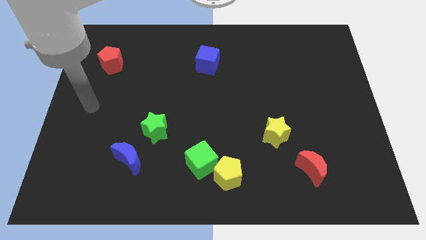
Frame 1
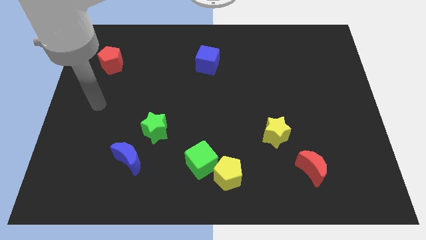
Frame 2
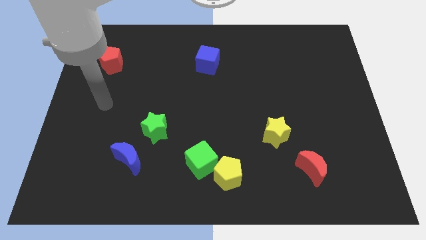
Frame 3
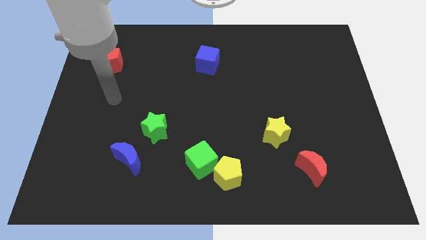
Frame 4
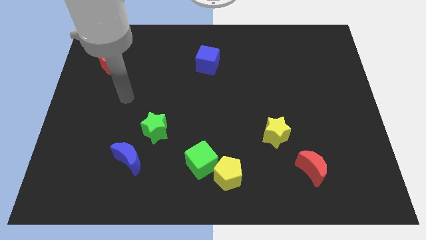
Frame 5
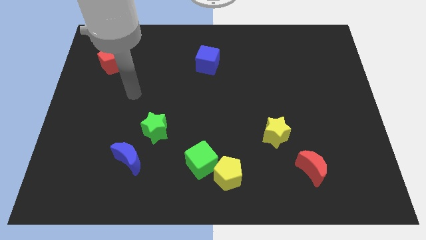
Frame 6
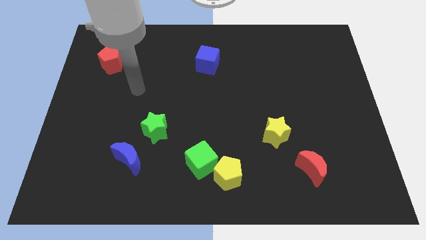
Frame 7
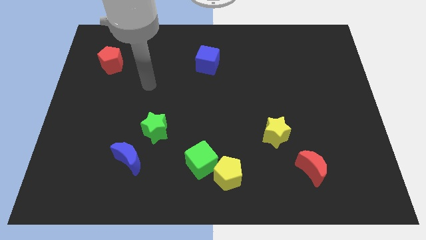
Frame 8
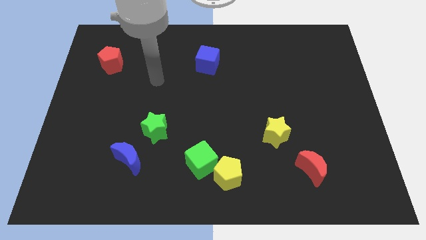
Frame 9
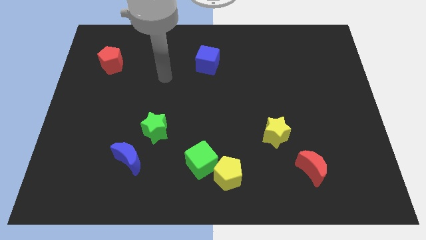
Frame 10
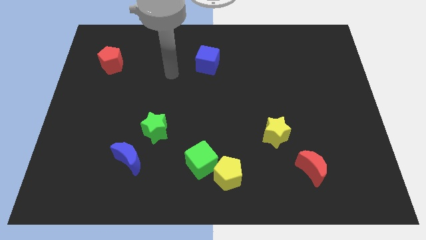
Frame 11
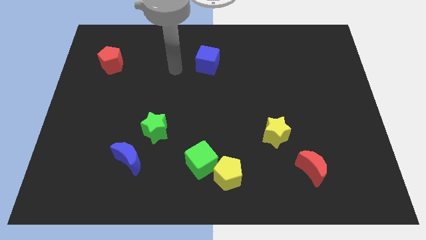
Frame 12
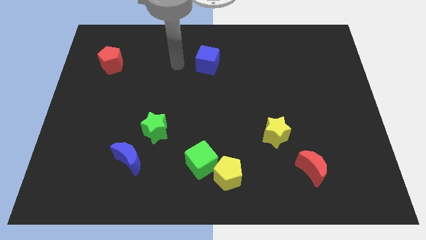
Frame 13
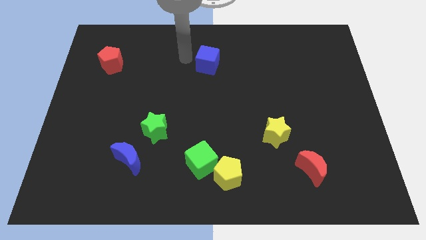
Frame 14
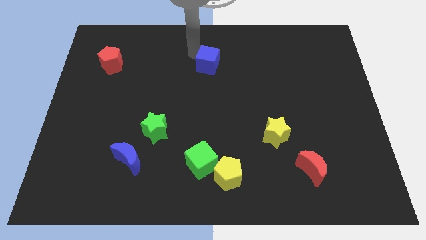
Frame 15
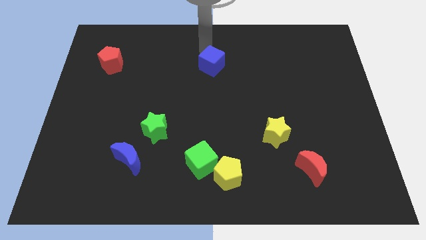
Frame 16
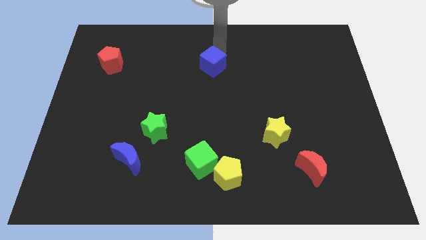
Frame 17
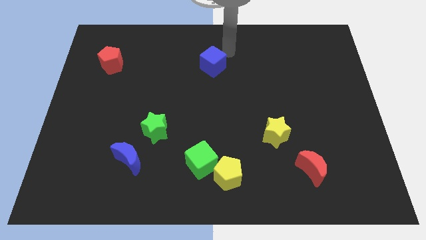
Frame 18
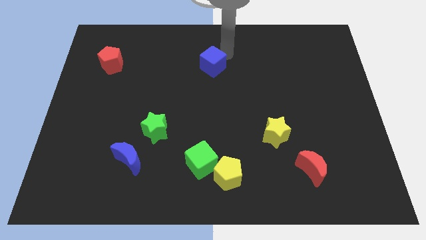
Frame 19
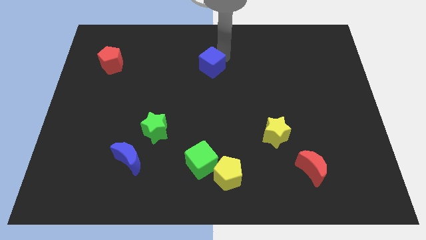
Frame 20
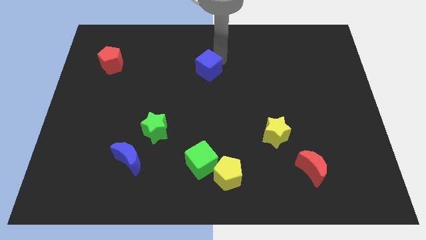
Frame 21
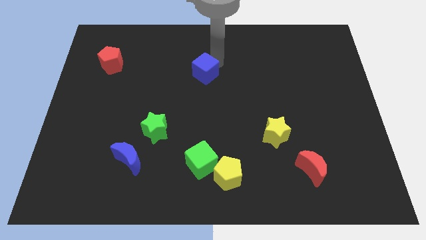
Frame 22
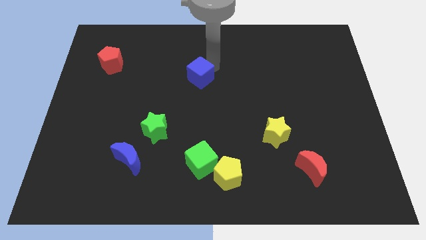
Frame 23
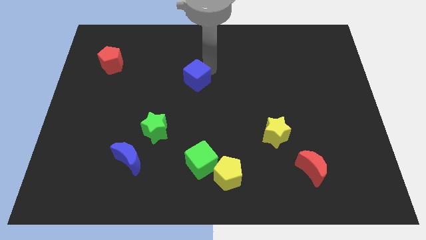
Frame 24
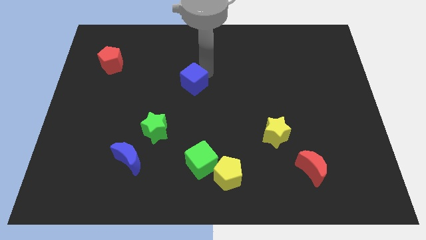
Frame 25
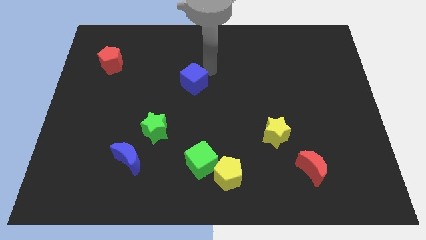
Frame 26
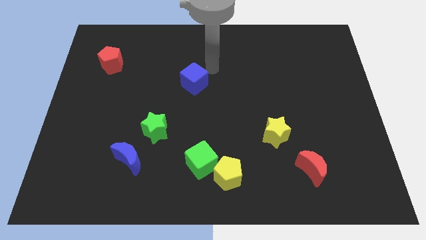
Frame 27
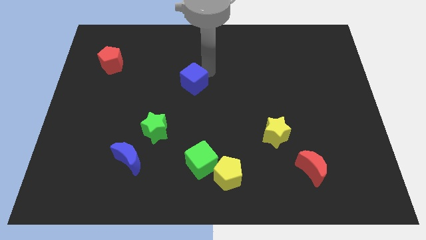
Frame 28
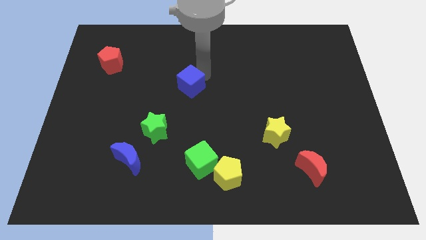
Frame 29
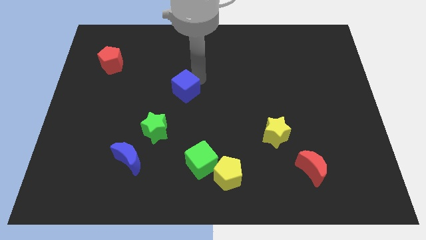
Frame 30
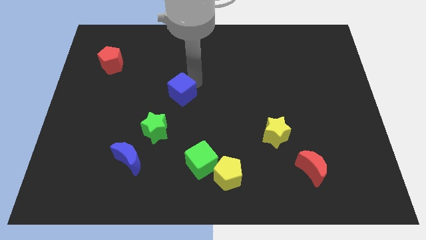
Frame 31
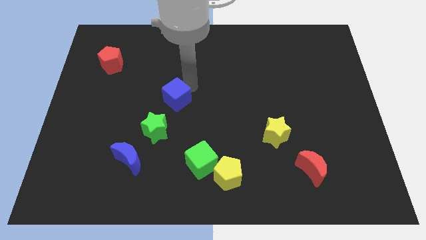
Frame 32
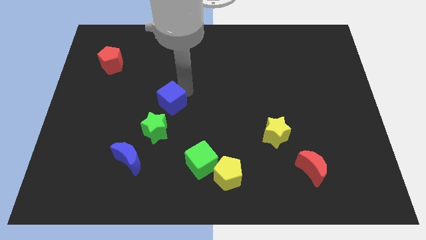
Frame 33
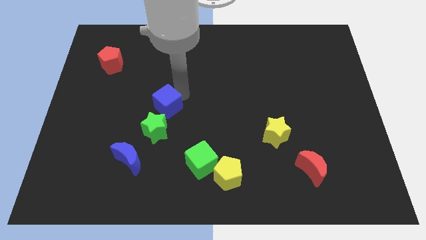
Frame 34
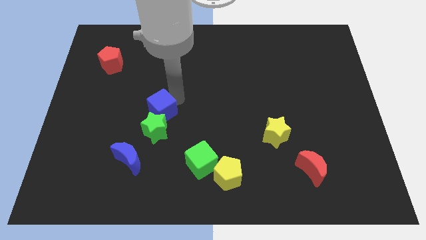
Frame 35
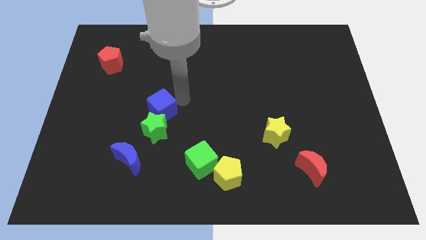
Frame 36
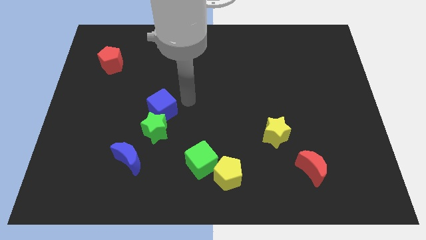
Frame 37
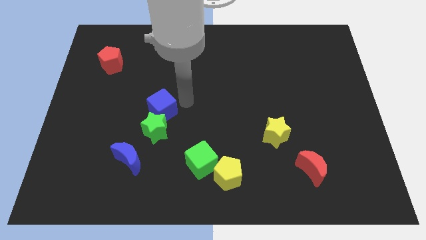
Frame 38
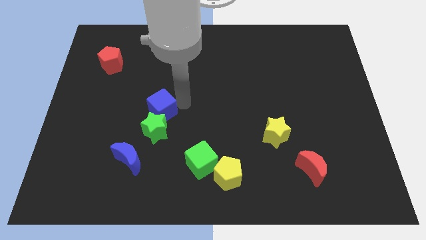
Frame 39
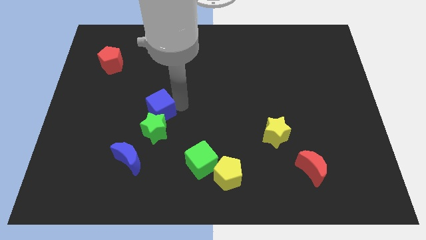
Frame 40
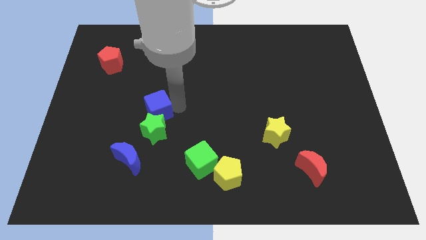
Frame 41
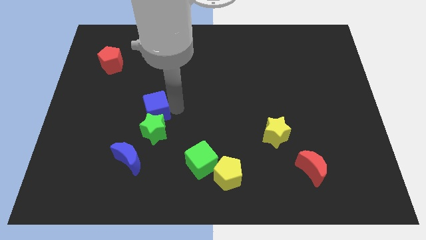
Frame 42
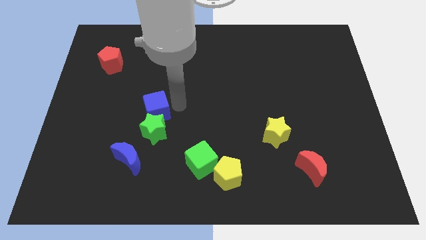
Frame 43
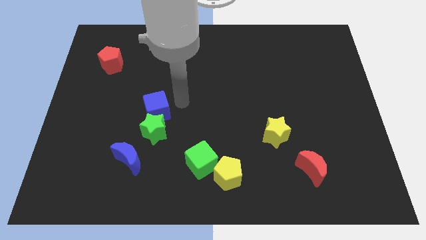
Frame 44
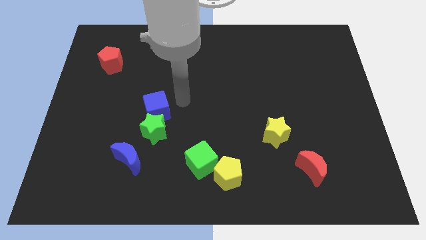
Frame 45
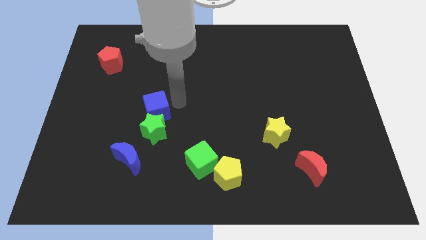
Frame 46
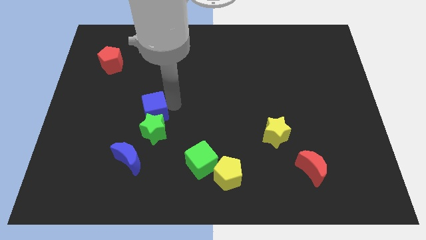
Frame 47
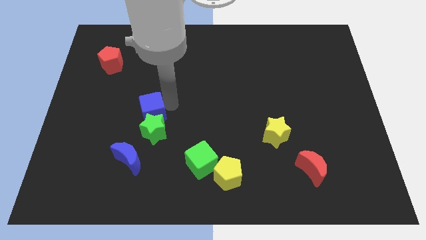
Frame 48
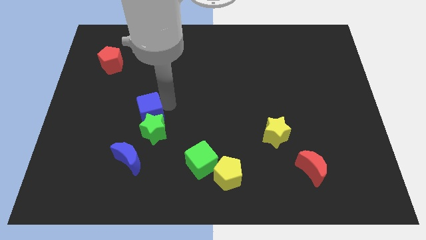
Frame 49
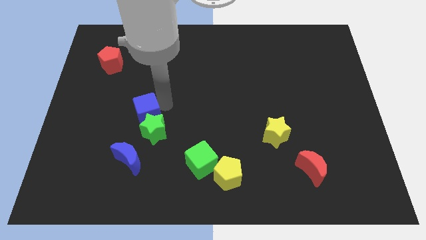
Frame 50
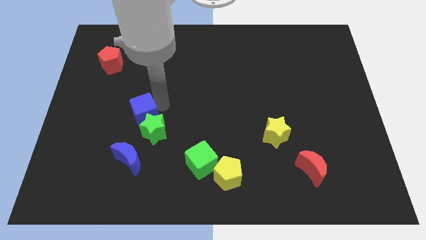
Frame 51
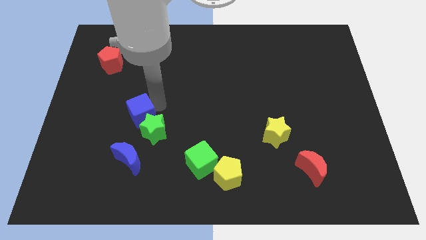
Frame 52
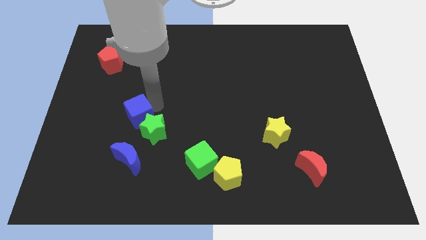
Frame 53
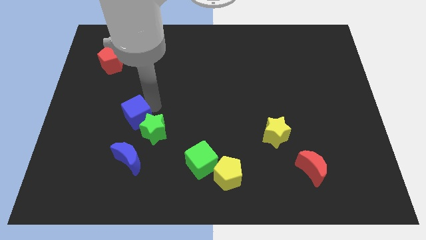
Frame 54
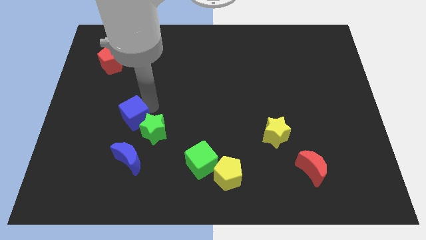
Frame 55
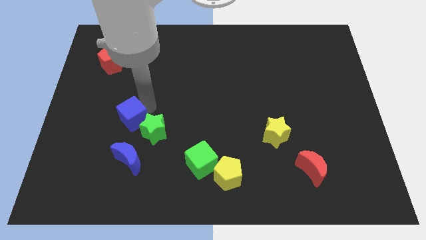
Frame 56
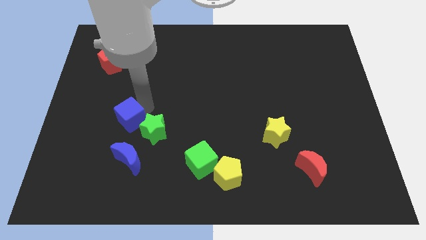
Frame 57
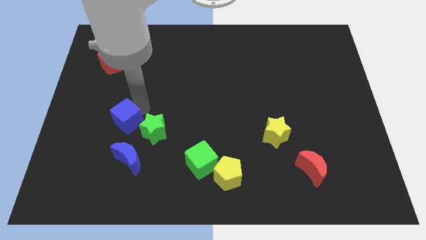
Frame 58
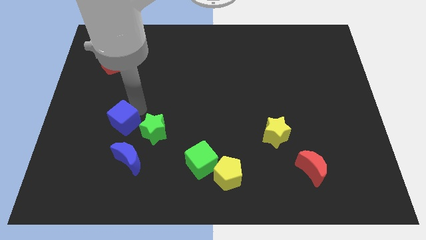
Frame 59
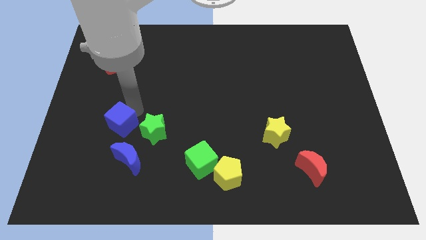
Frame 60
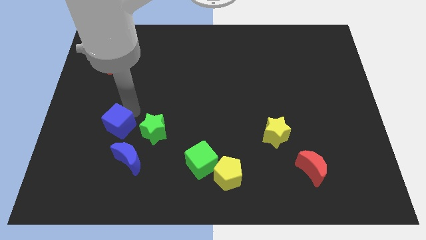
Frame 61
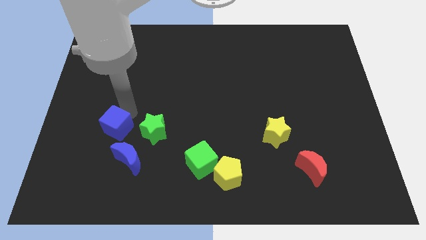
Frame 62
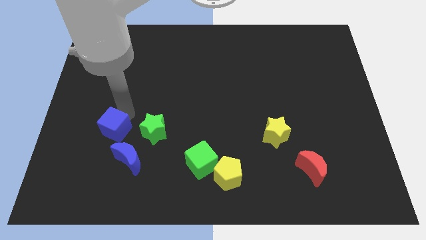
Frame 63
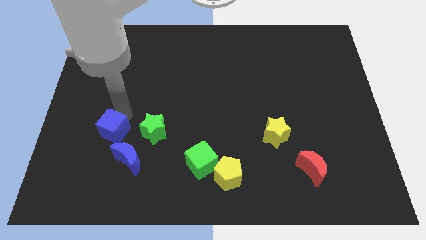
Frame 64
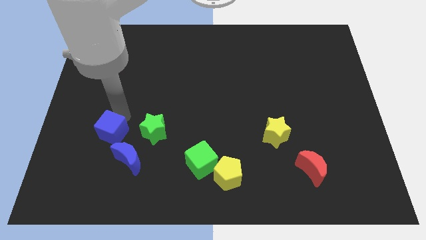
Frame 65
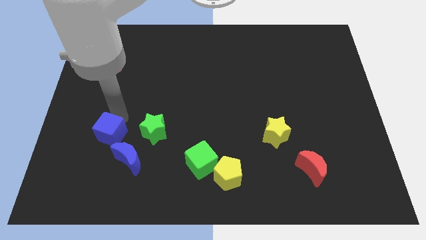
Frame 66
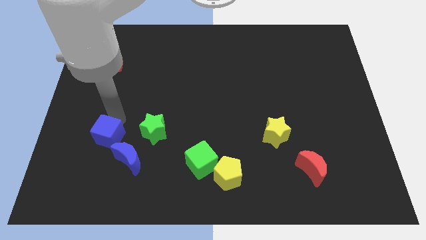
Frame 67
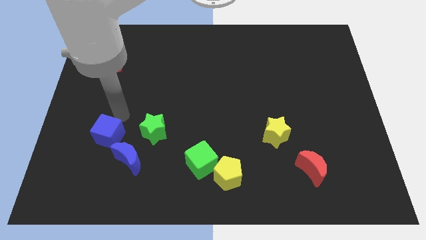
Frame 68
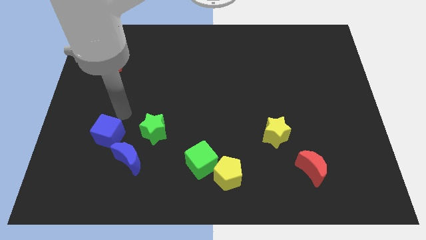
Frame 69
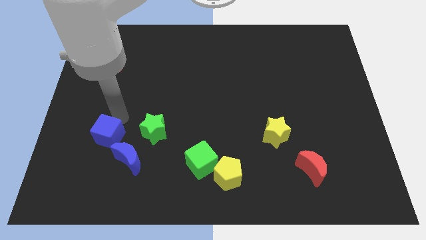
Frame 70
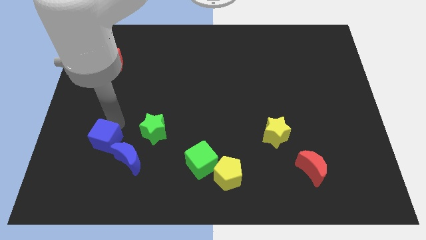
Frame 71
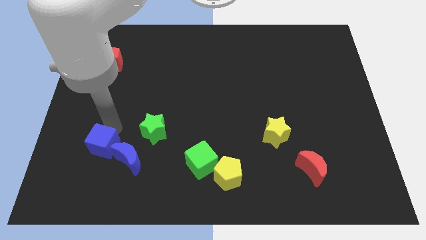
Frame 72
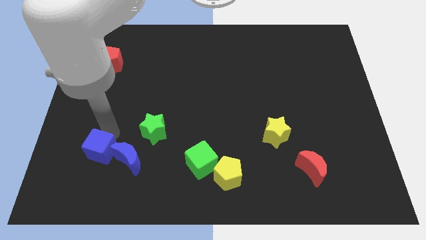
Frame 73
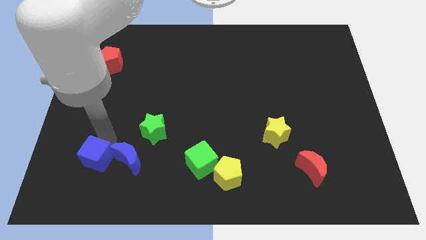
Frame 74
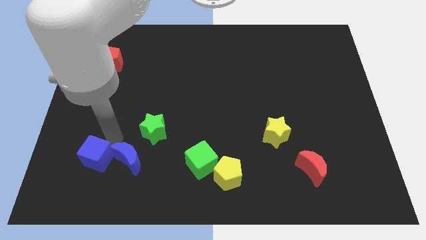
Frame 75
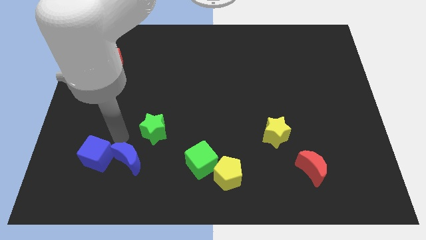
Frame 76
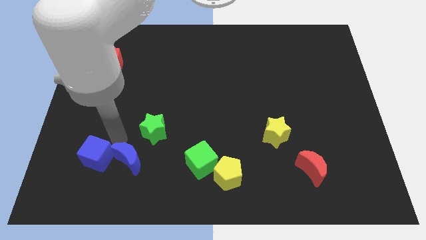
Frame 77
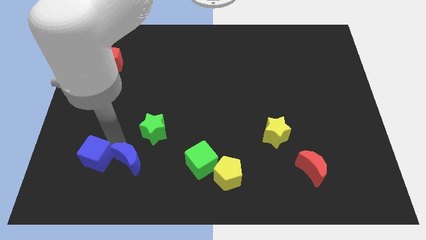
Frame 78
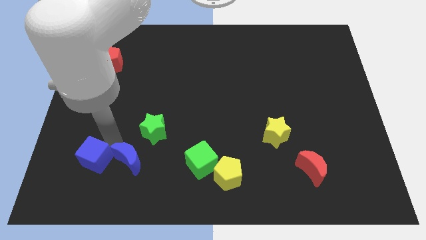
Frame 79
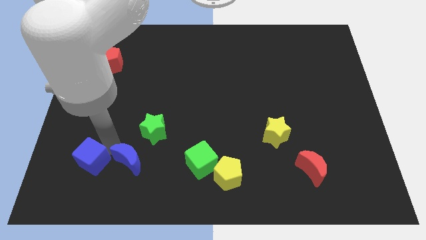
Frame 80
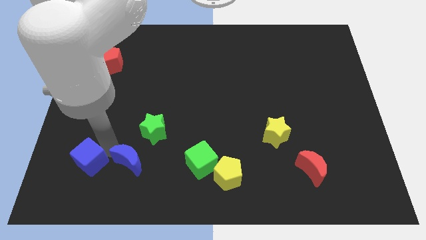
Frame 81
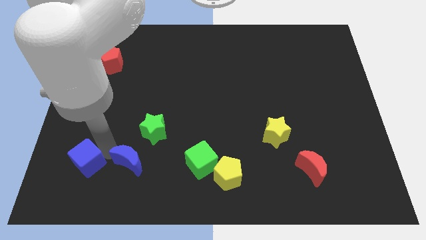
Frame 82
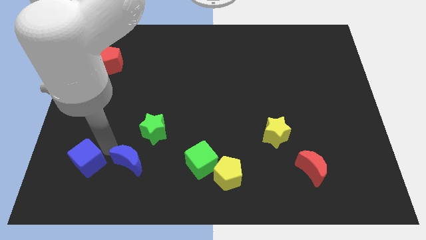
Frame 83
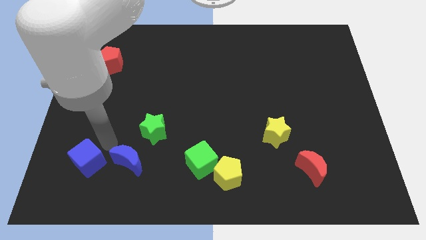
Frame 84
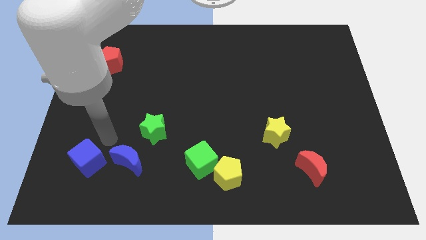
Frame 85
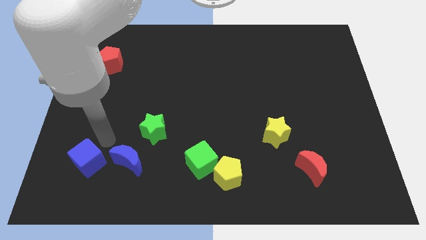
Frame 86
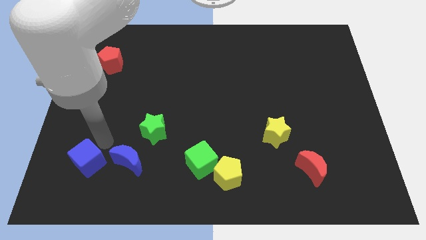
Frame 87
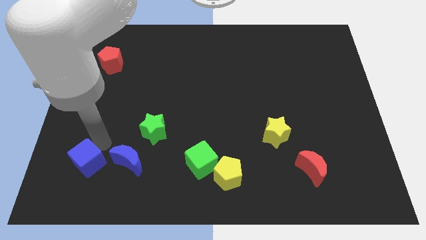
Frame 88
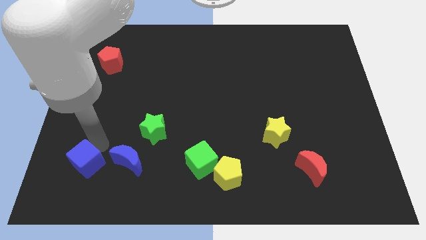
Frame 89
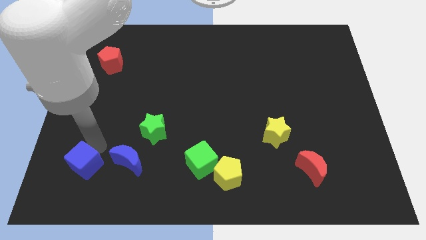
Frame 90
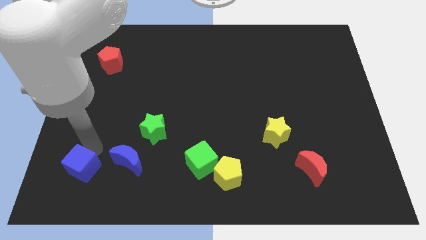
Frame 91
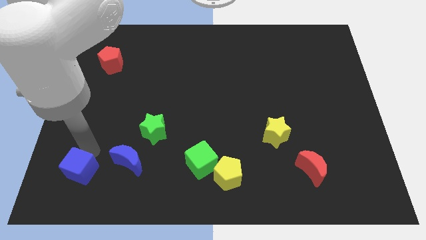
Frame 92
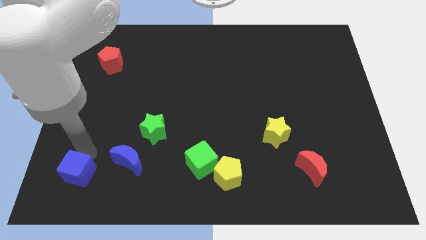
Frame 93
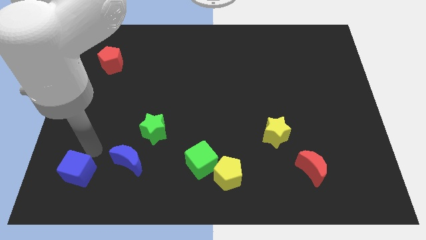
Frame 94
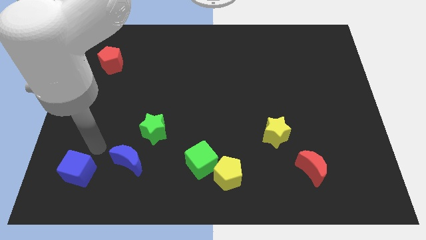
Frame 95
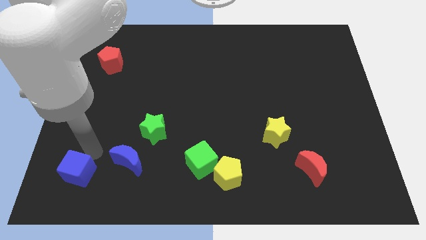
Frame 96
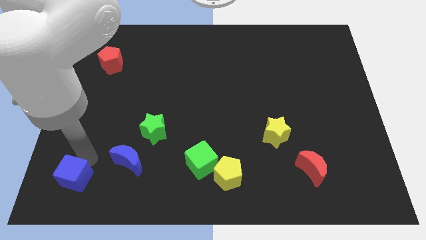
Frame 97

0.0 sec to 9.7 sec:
slide the blue cube to the bottom left corner
